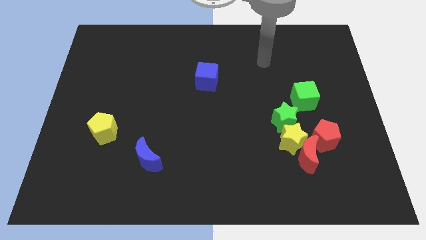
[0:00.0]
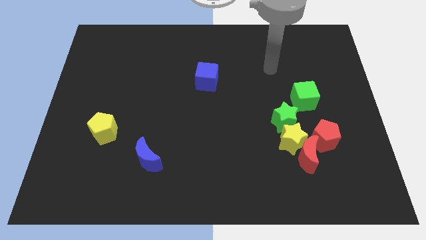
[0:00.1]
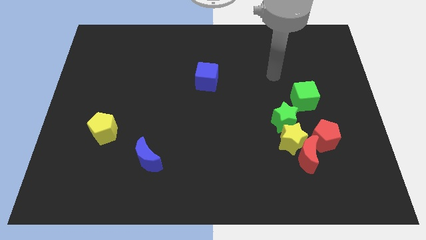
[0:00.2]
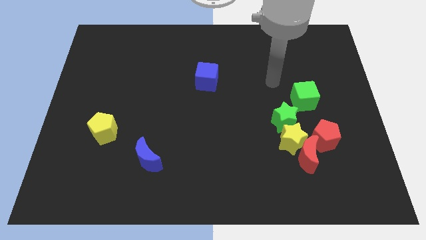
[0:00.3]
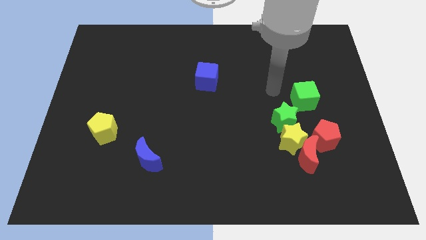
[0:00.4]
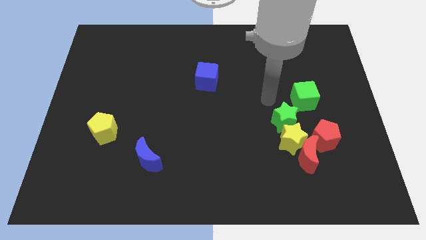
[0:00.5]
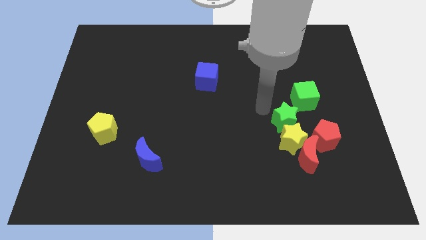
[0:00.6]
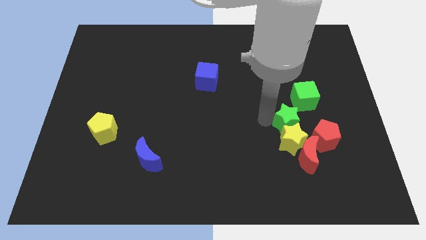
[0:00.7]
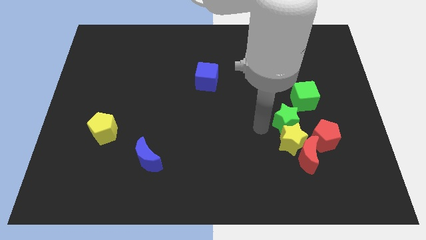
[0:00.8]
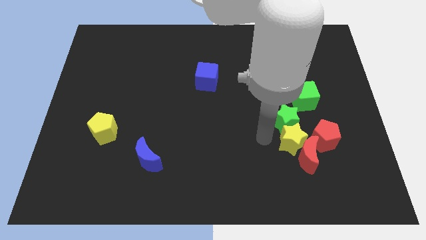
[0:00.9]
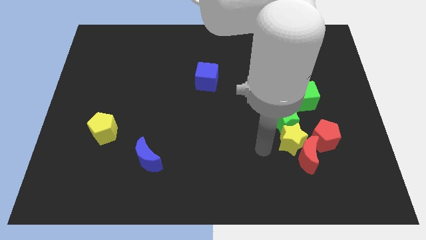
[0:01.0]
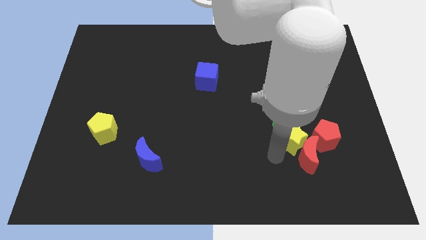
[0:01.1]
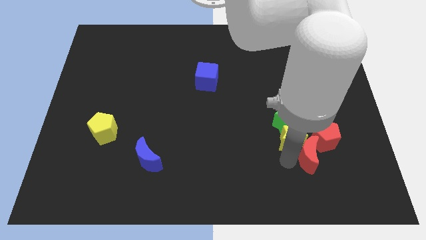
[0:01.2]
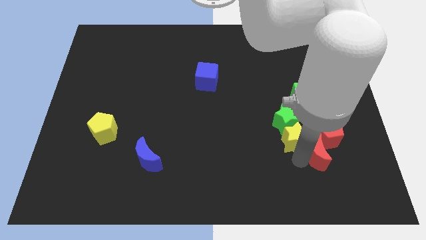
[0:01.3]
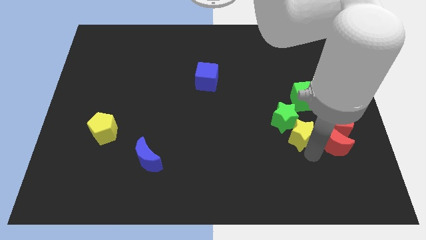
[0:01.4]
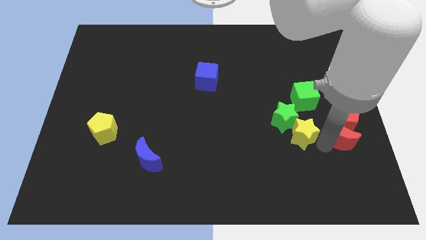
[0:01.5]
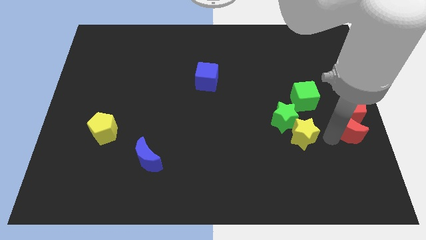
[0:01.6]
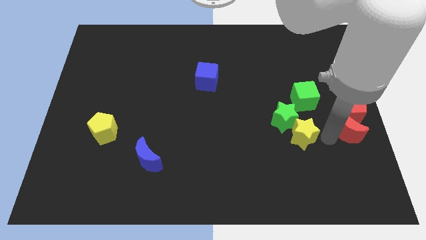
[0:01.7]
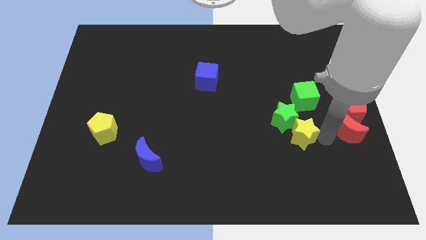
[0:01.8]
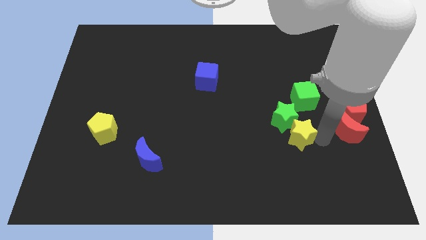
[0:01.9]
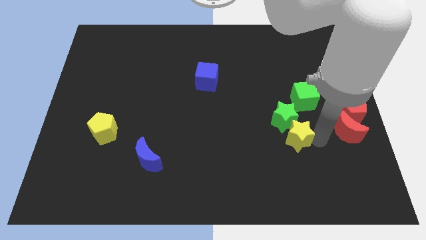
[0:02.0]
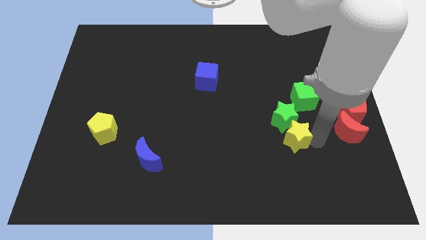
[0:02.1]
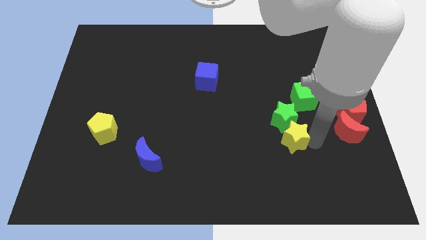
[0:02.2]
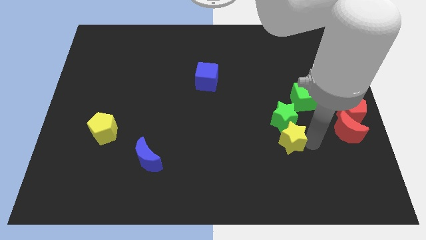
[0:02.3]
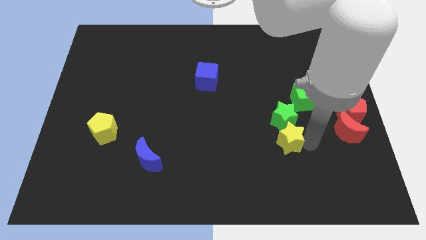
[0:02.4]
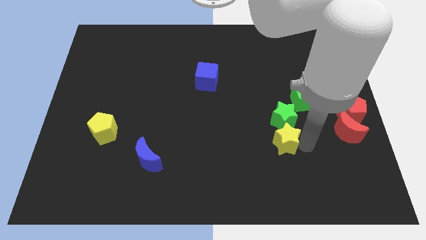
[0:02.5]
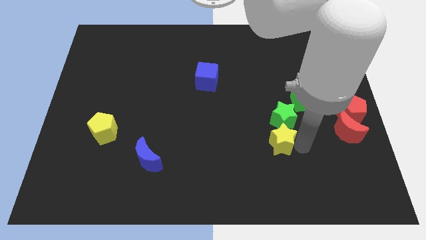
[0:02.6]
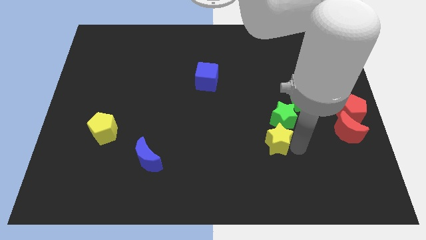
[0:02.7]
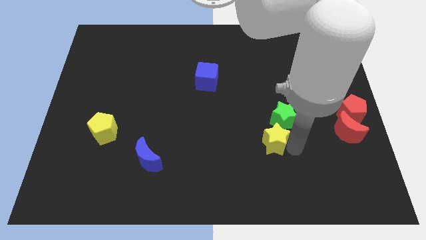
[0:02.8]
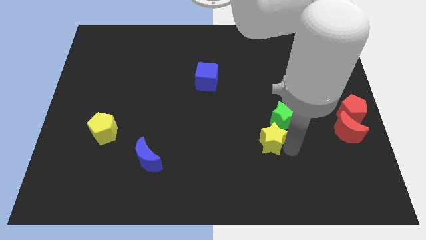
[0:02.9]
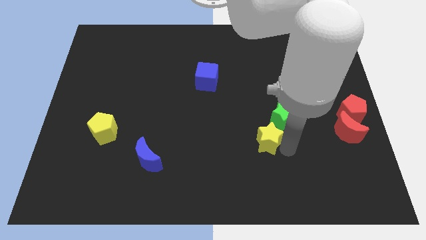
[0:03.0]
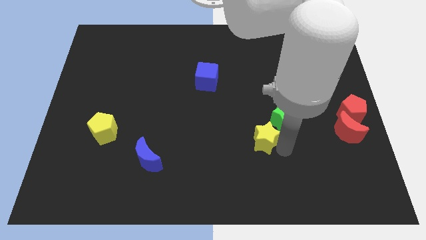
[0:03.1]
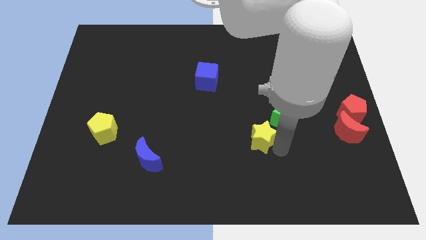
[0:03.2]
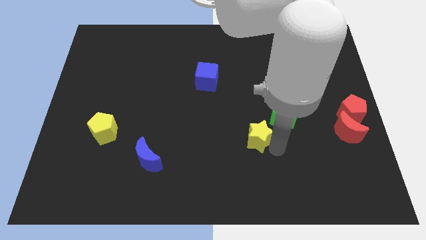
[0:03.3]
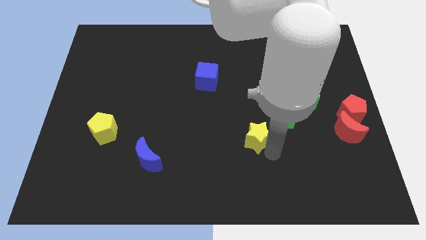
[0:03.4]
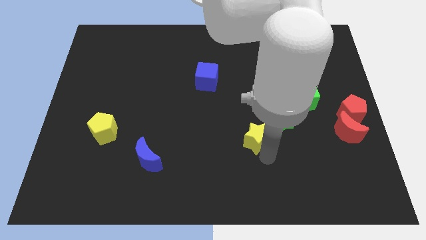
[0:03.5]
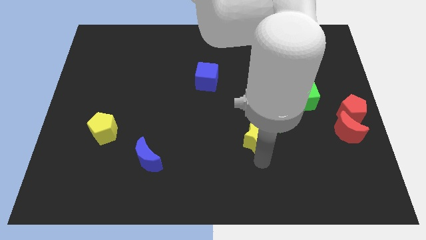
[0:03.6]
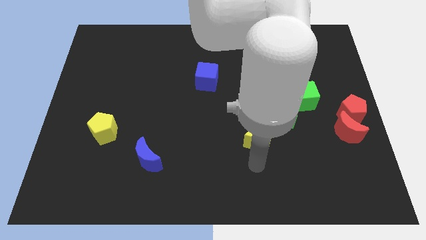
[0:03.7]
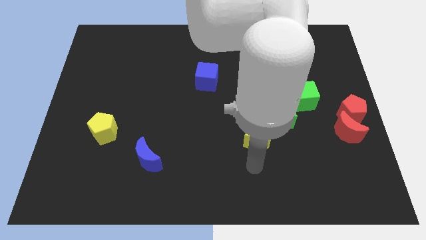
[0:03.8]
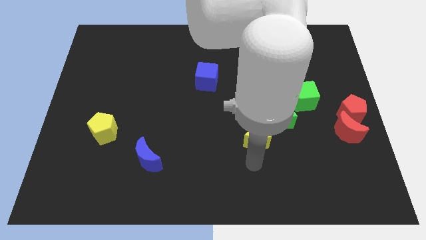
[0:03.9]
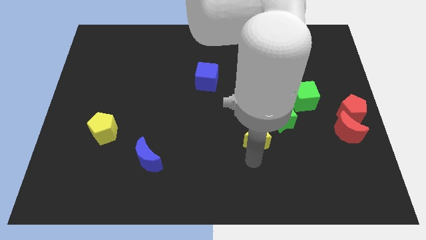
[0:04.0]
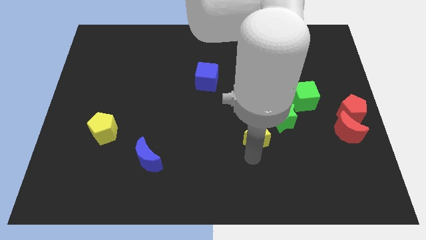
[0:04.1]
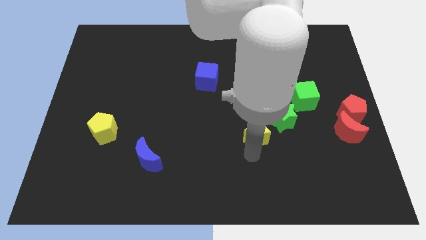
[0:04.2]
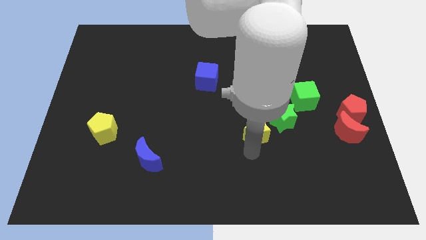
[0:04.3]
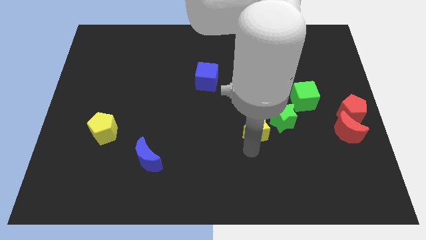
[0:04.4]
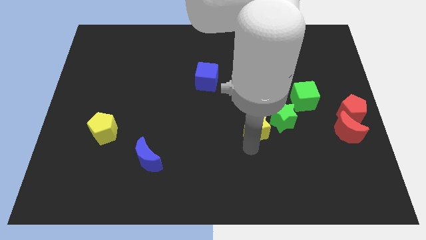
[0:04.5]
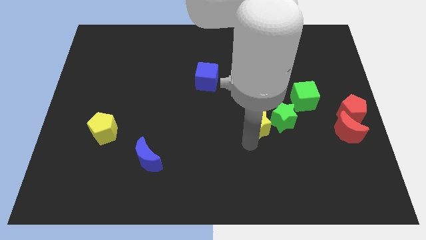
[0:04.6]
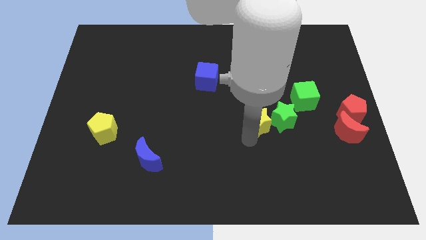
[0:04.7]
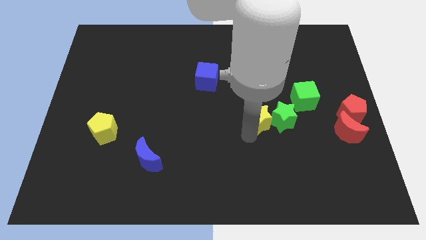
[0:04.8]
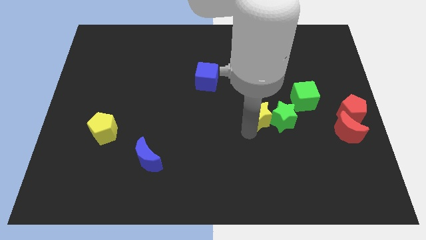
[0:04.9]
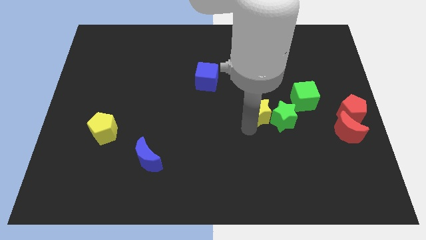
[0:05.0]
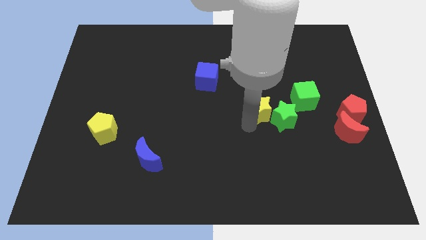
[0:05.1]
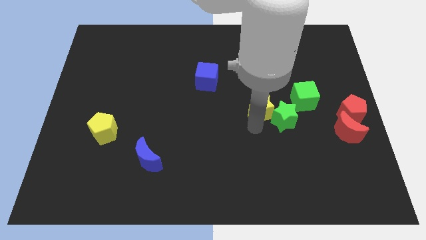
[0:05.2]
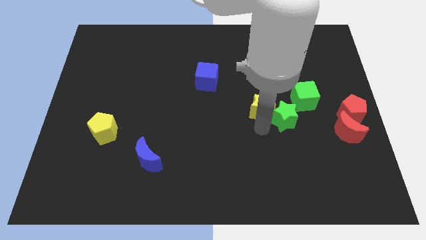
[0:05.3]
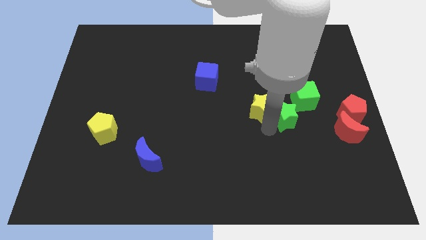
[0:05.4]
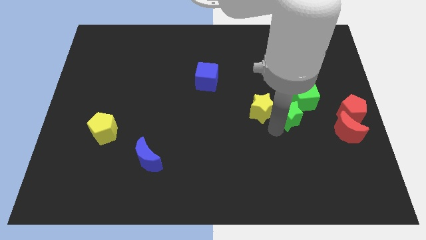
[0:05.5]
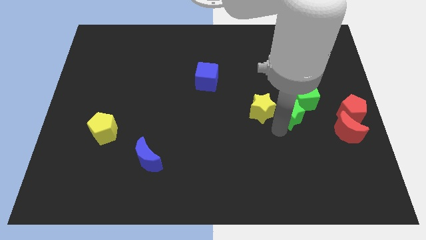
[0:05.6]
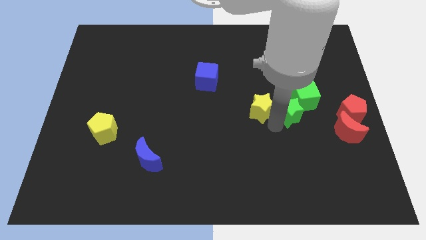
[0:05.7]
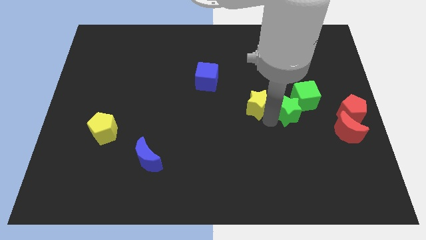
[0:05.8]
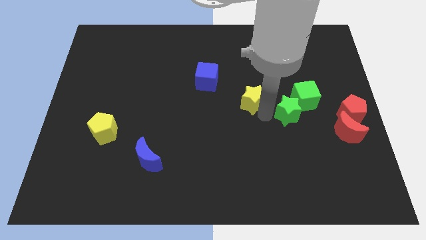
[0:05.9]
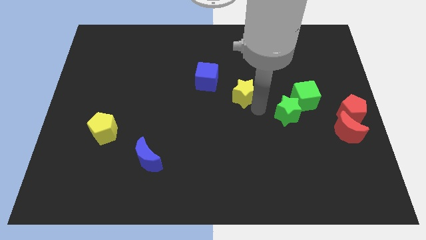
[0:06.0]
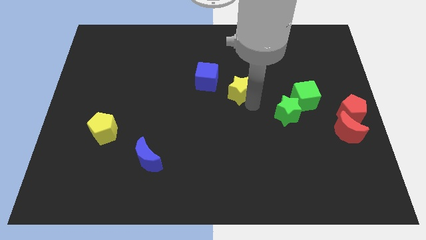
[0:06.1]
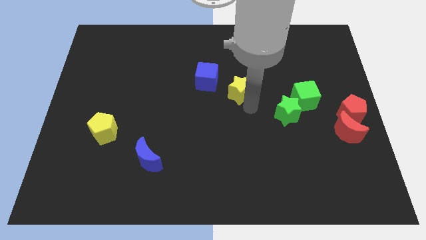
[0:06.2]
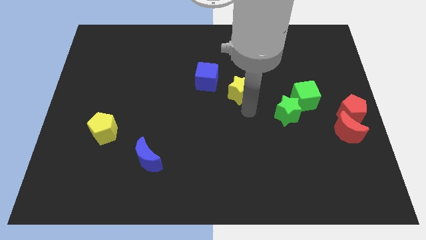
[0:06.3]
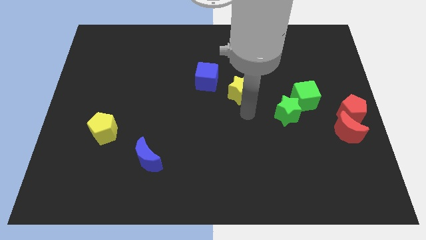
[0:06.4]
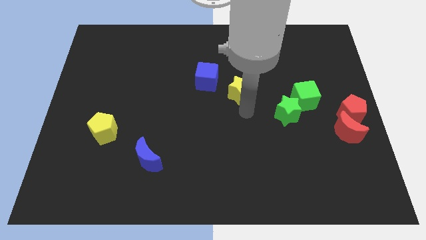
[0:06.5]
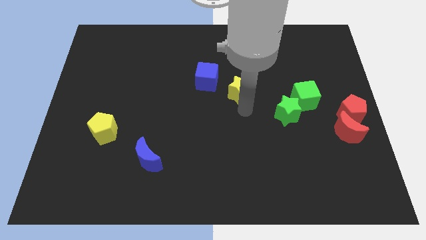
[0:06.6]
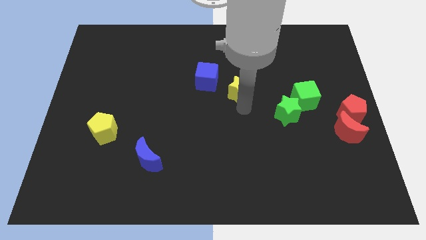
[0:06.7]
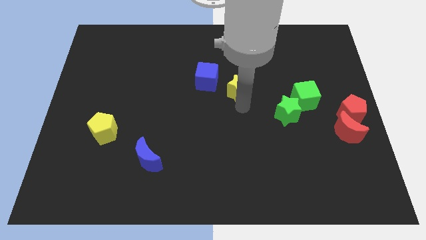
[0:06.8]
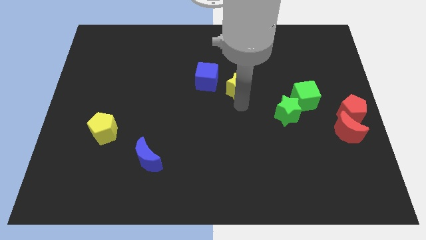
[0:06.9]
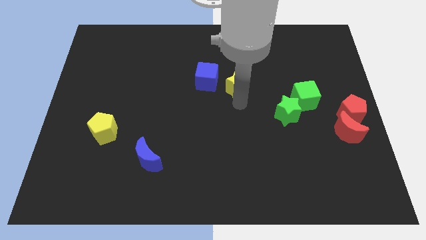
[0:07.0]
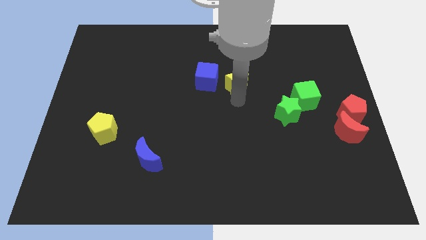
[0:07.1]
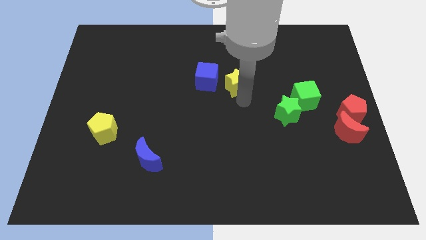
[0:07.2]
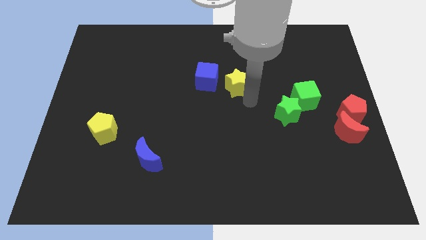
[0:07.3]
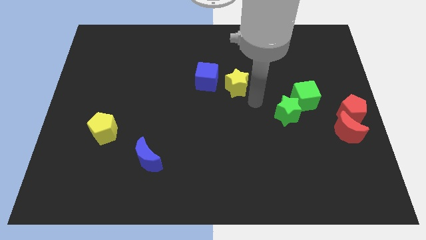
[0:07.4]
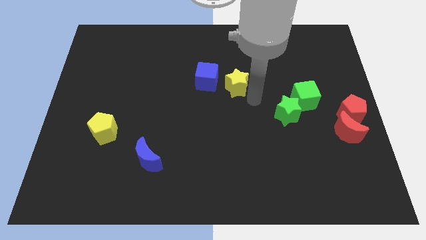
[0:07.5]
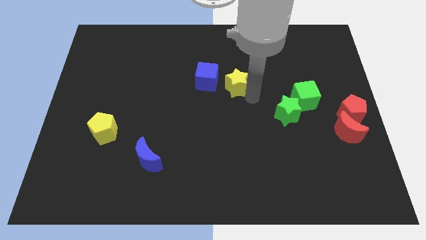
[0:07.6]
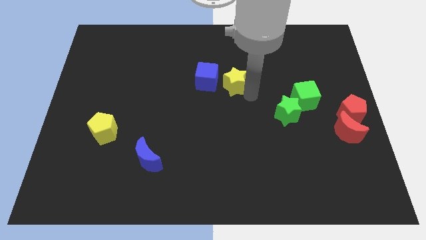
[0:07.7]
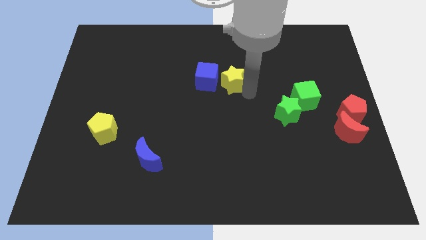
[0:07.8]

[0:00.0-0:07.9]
move the yellow star upwards and to the left
